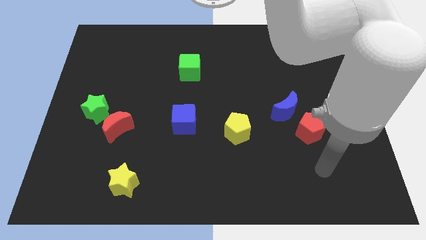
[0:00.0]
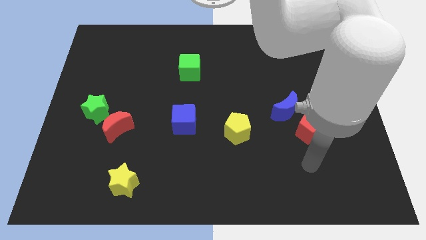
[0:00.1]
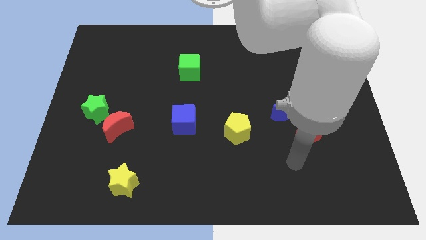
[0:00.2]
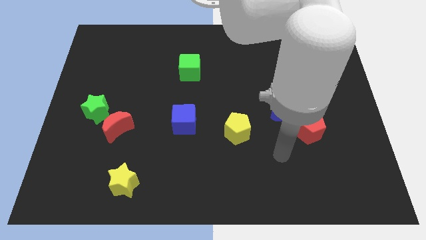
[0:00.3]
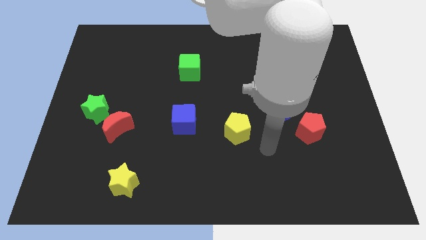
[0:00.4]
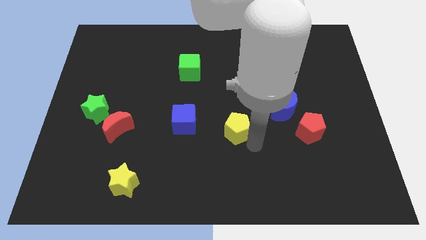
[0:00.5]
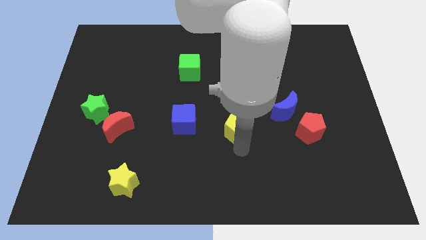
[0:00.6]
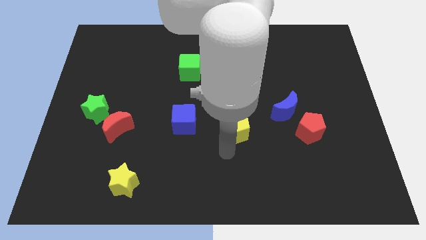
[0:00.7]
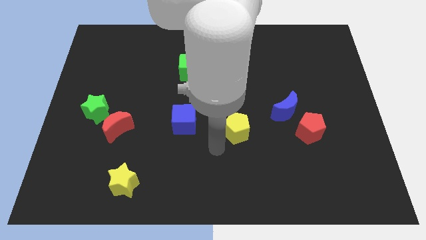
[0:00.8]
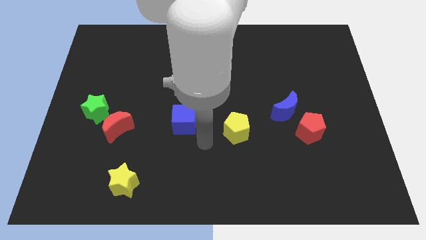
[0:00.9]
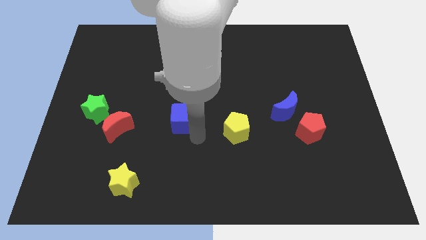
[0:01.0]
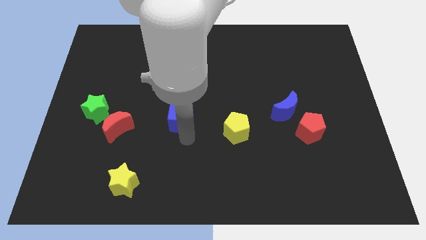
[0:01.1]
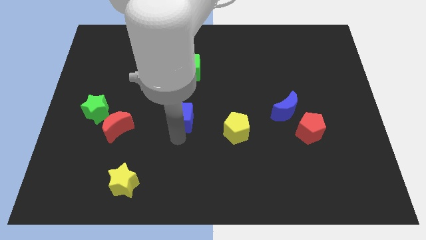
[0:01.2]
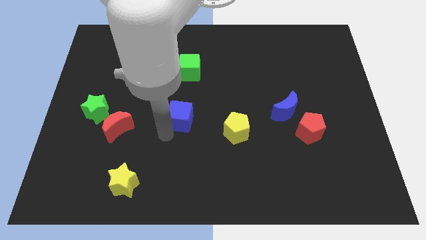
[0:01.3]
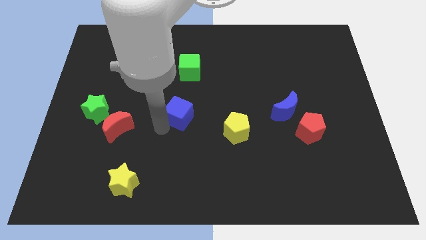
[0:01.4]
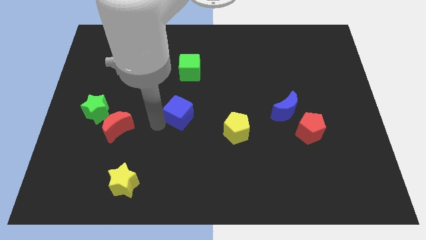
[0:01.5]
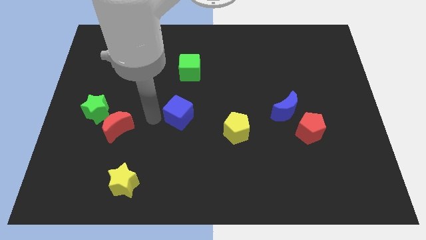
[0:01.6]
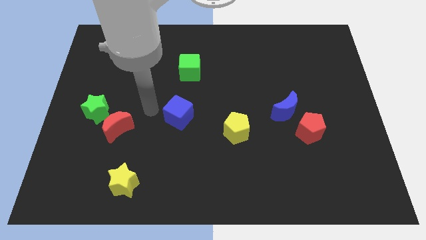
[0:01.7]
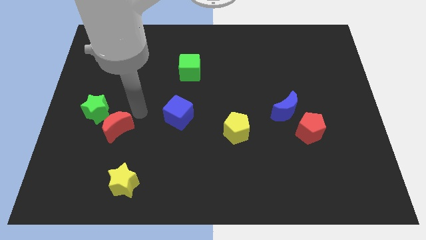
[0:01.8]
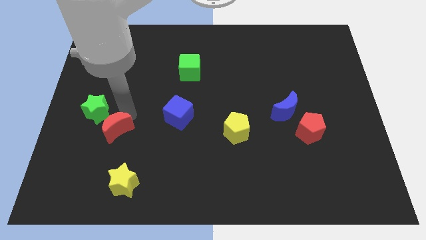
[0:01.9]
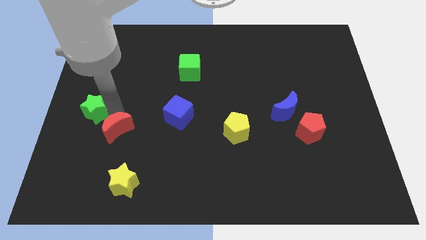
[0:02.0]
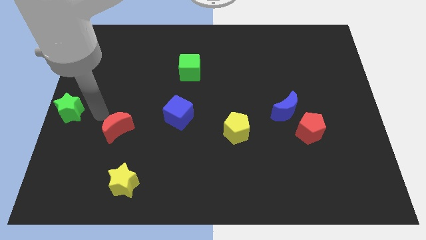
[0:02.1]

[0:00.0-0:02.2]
move the red moon away from the green star

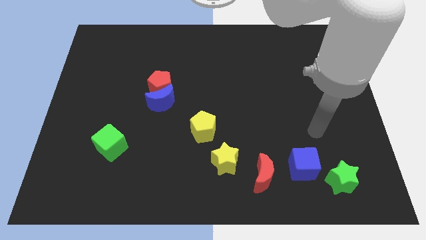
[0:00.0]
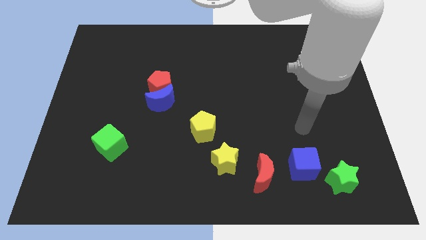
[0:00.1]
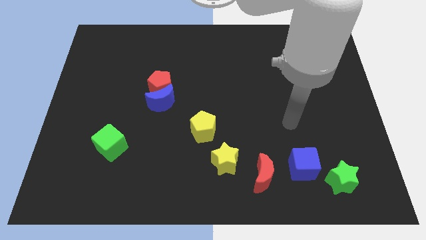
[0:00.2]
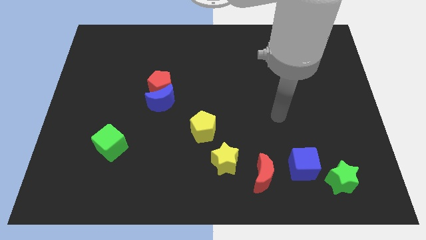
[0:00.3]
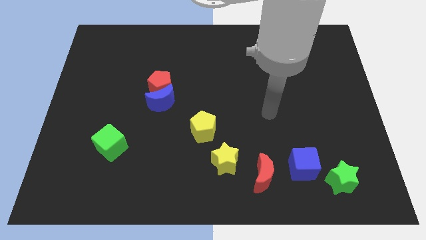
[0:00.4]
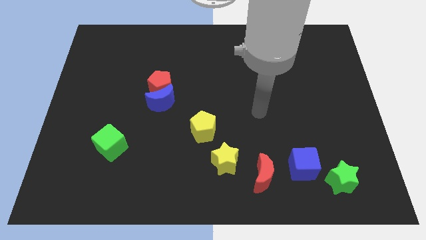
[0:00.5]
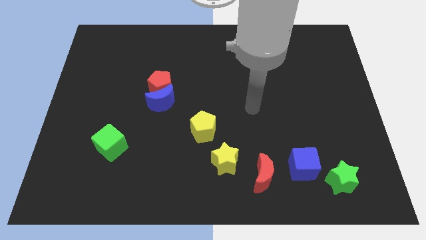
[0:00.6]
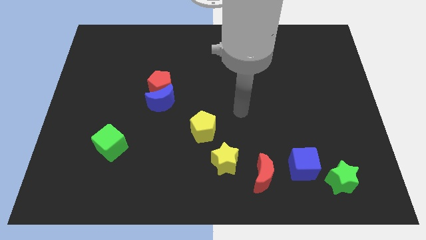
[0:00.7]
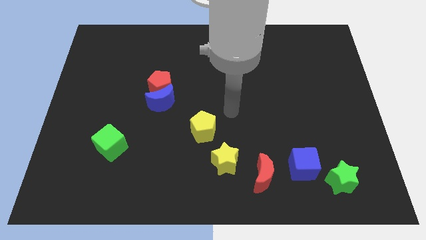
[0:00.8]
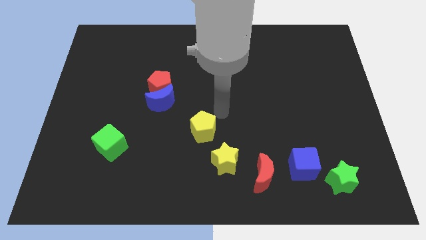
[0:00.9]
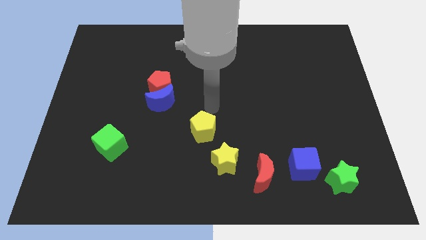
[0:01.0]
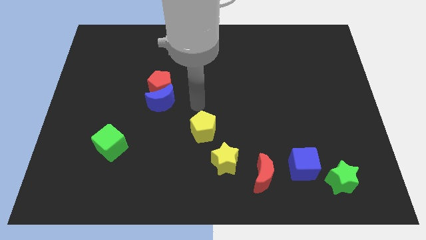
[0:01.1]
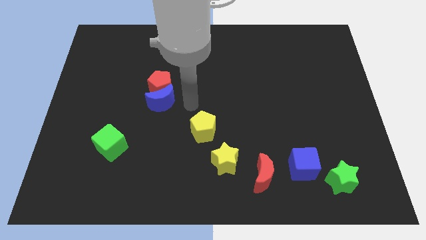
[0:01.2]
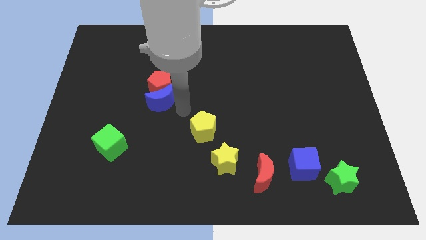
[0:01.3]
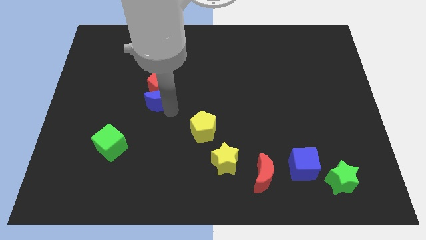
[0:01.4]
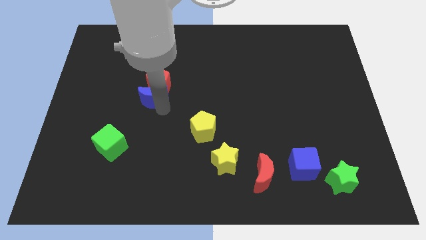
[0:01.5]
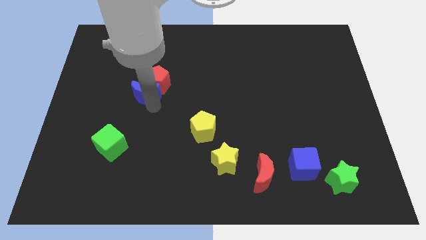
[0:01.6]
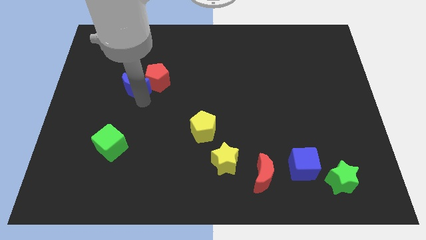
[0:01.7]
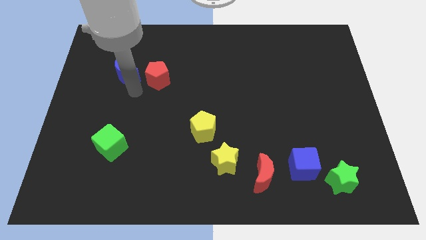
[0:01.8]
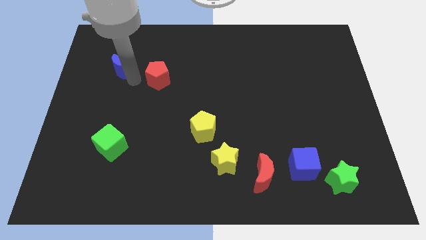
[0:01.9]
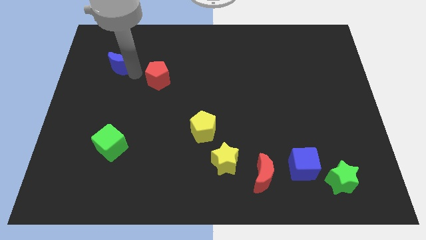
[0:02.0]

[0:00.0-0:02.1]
move the red pentagon away from the blue moon

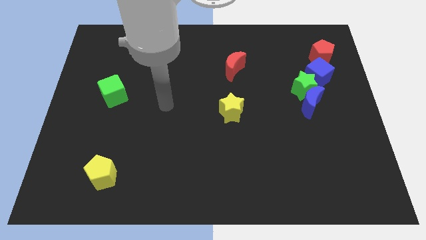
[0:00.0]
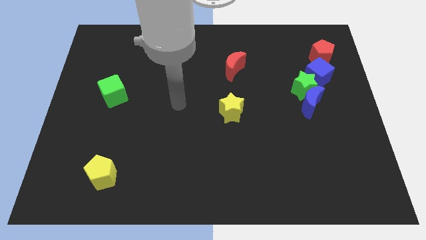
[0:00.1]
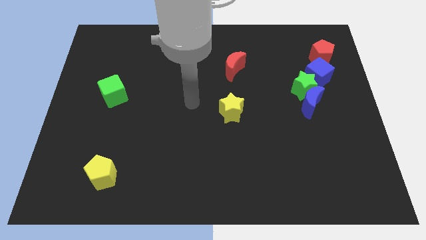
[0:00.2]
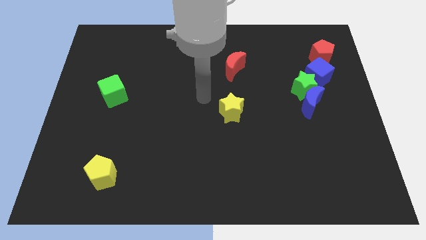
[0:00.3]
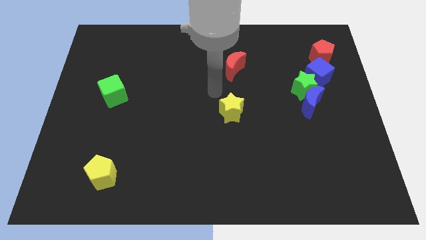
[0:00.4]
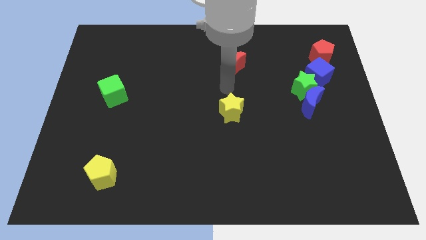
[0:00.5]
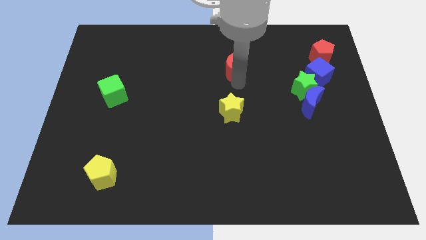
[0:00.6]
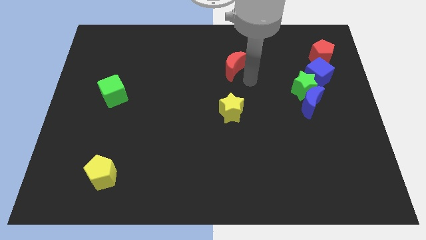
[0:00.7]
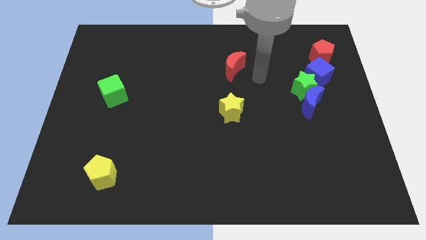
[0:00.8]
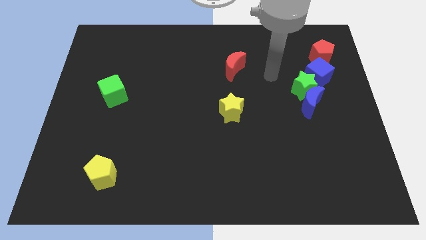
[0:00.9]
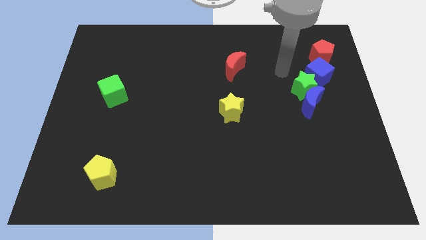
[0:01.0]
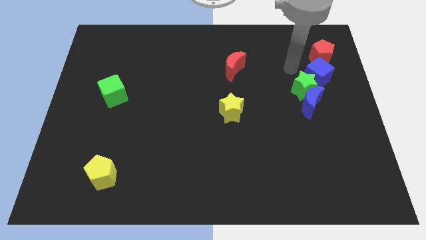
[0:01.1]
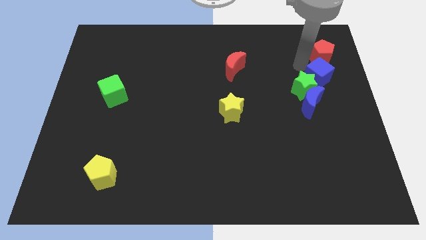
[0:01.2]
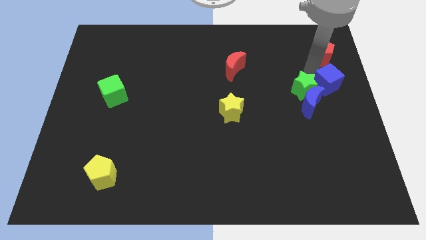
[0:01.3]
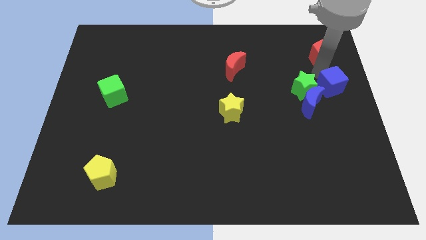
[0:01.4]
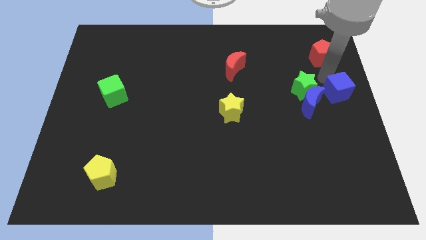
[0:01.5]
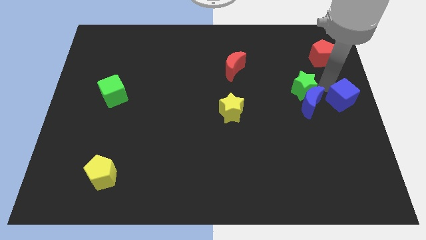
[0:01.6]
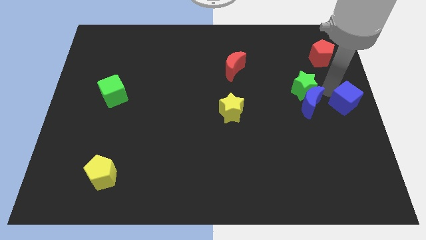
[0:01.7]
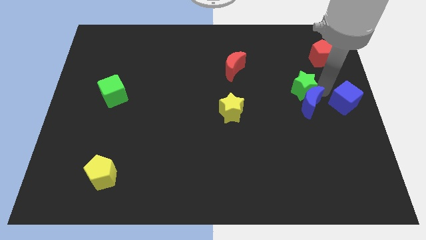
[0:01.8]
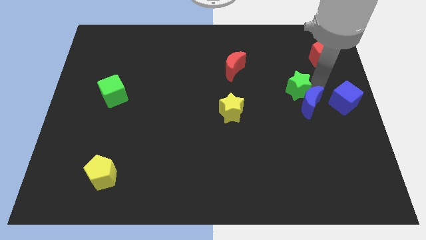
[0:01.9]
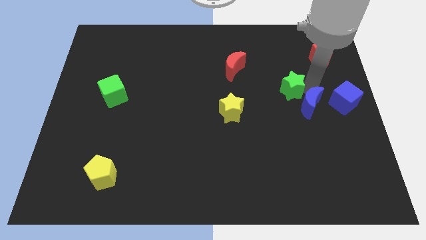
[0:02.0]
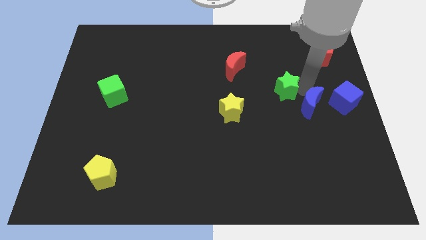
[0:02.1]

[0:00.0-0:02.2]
move the green star away from the blue moon and blue cube

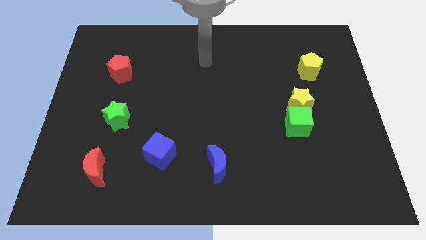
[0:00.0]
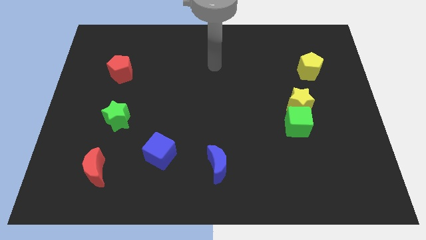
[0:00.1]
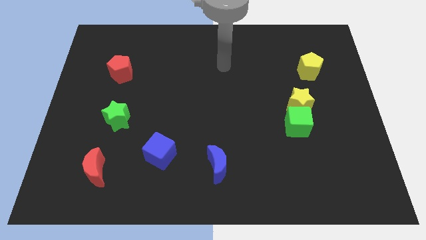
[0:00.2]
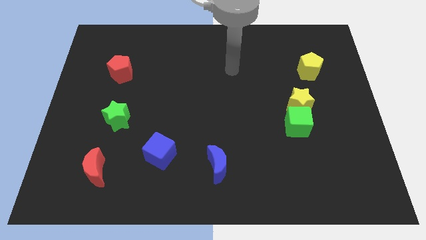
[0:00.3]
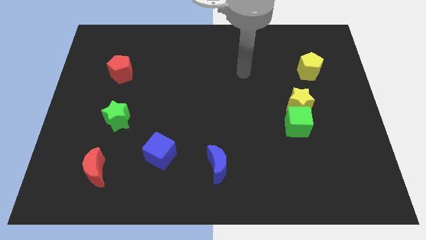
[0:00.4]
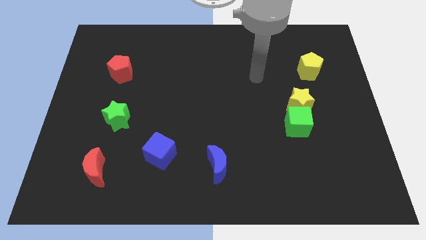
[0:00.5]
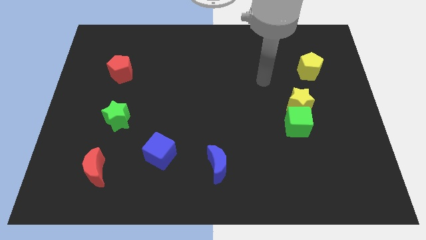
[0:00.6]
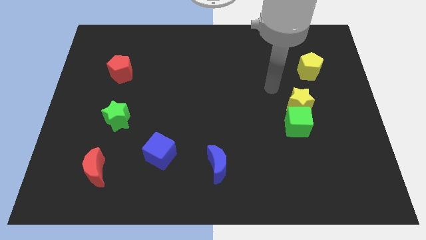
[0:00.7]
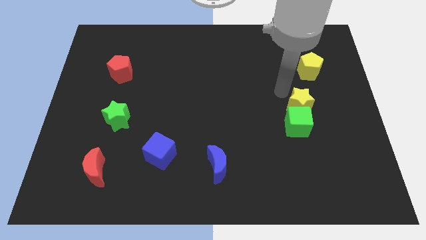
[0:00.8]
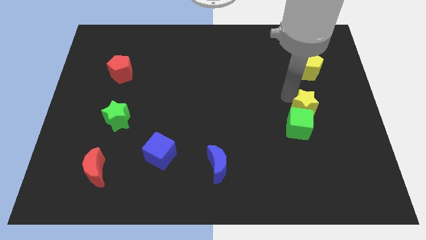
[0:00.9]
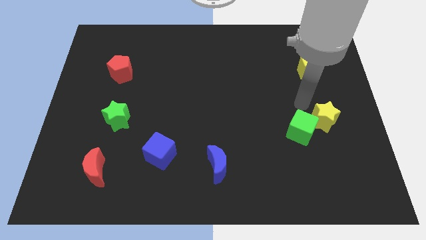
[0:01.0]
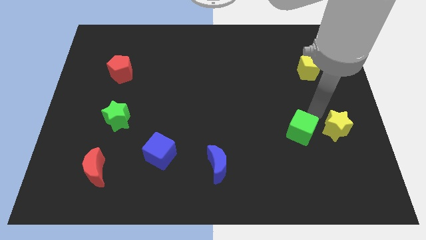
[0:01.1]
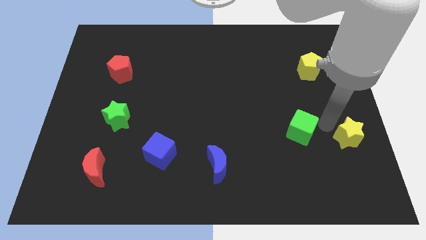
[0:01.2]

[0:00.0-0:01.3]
move the green cube away from the yellow star

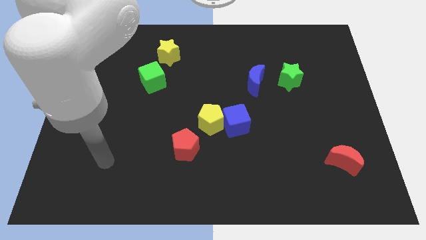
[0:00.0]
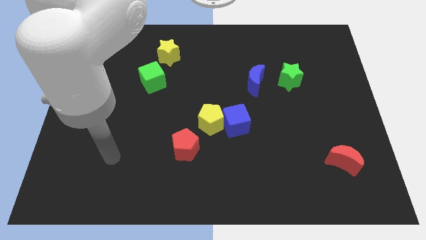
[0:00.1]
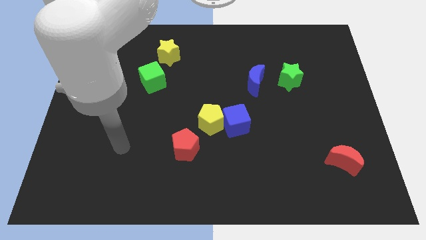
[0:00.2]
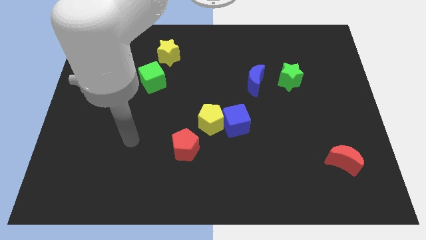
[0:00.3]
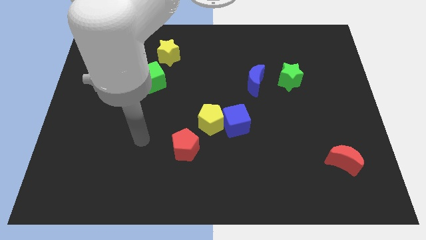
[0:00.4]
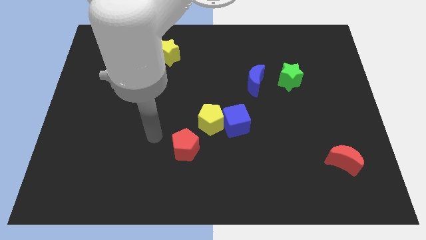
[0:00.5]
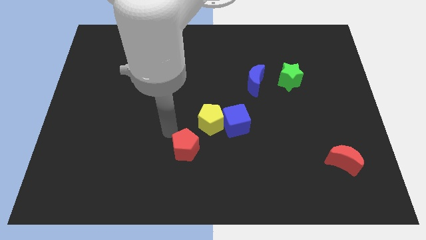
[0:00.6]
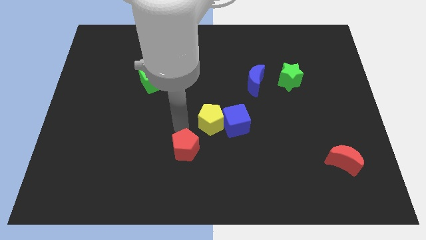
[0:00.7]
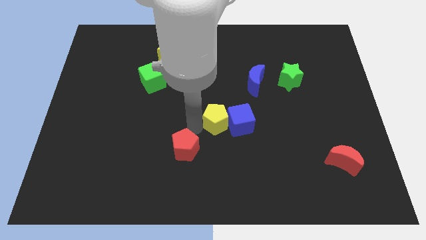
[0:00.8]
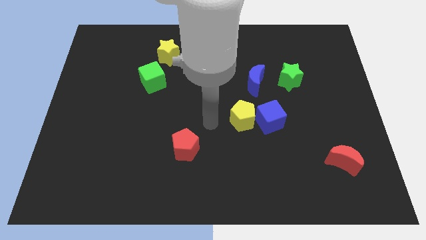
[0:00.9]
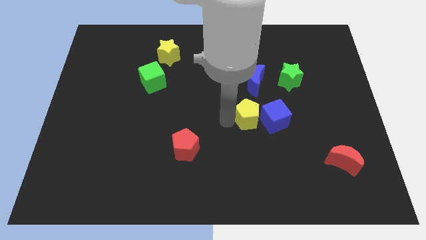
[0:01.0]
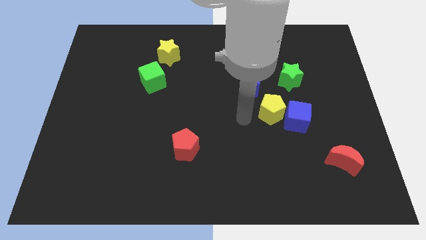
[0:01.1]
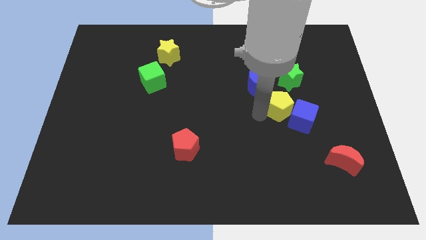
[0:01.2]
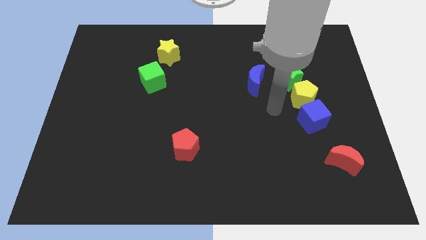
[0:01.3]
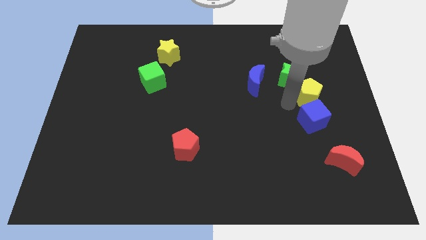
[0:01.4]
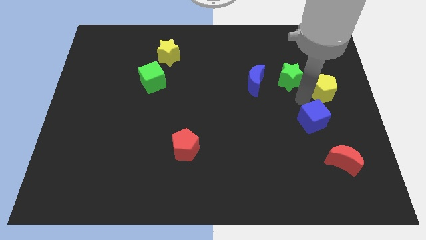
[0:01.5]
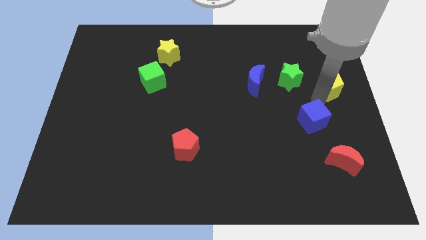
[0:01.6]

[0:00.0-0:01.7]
separate the blue cube from the yellow pentagon
